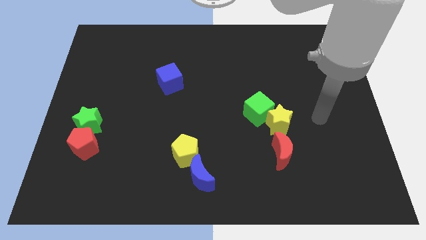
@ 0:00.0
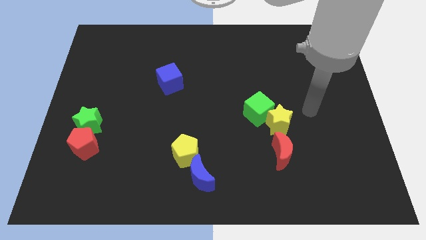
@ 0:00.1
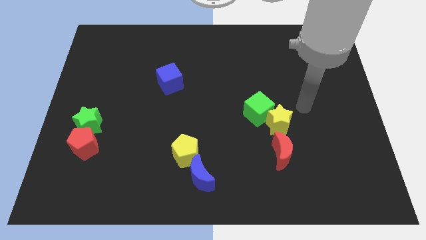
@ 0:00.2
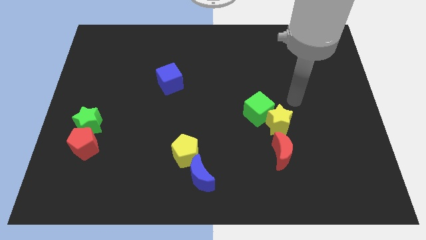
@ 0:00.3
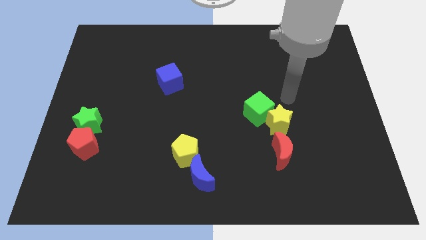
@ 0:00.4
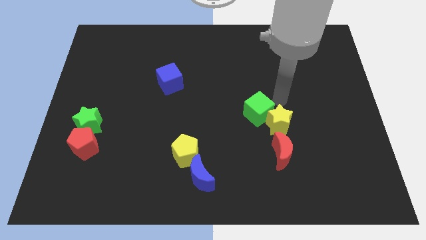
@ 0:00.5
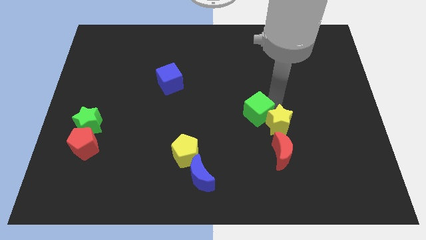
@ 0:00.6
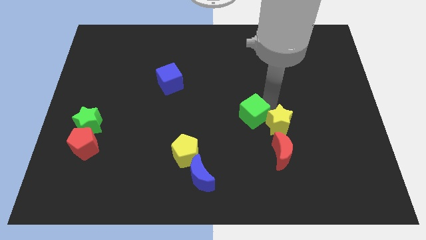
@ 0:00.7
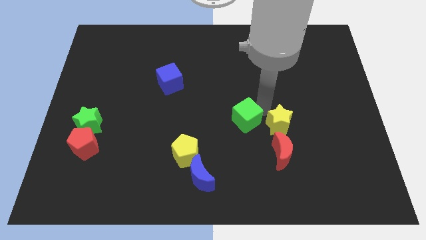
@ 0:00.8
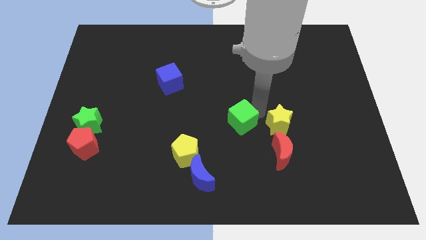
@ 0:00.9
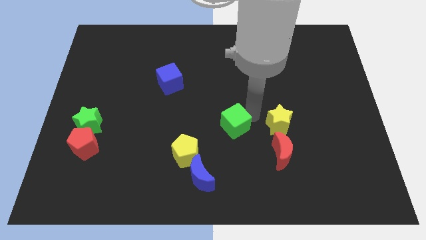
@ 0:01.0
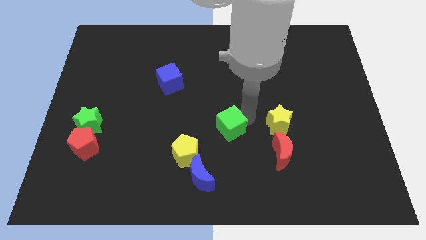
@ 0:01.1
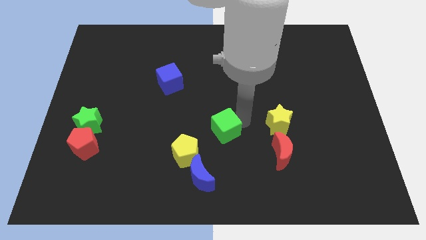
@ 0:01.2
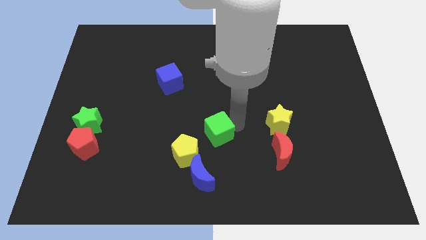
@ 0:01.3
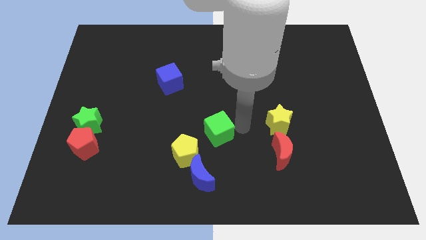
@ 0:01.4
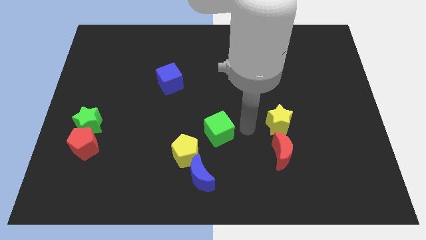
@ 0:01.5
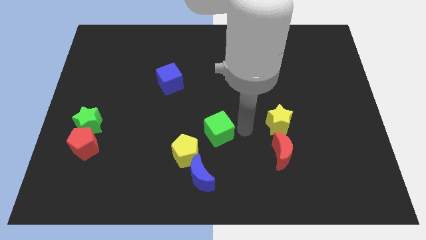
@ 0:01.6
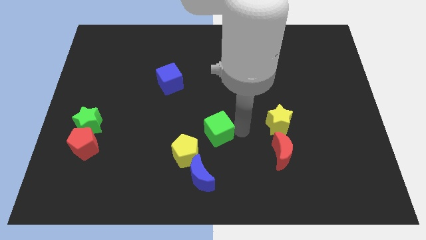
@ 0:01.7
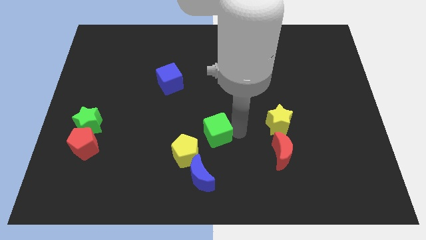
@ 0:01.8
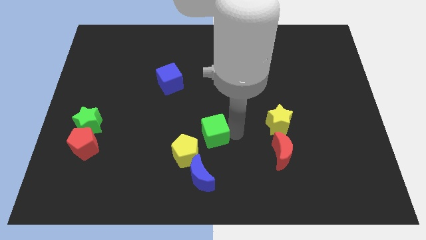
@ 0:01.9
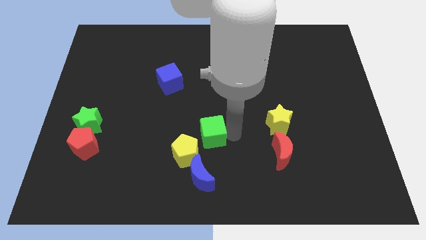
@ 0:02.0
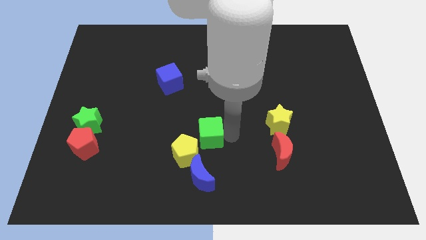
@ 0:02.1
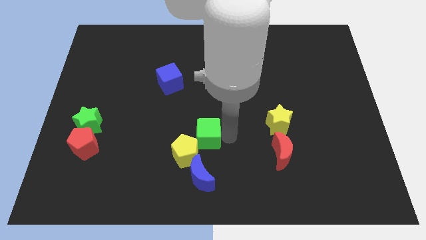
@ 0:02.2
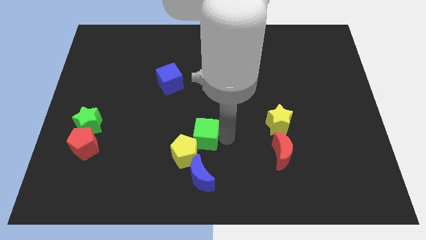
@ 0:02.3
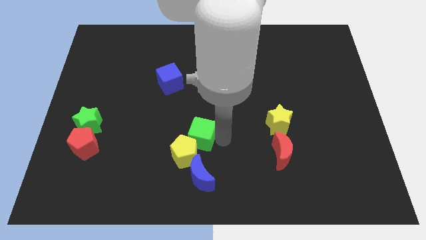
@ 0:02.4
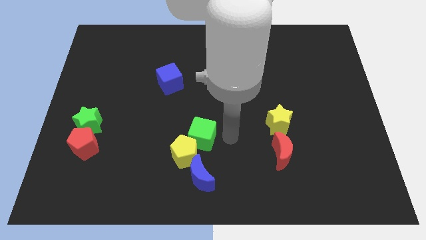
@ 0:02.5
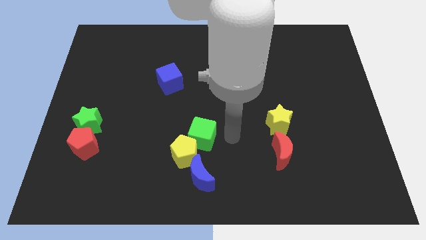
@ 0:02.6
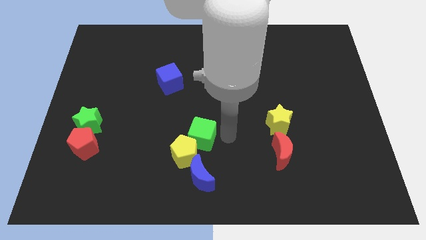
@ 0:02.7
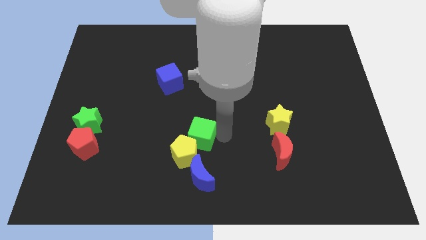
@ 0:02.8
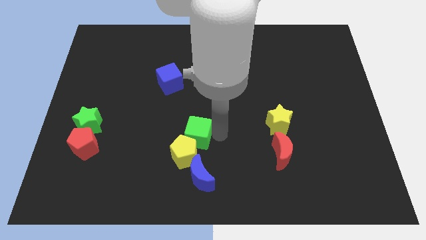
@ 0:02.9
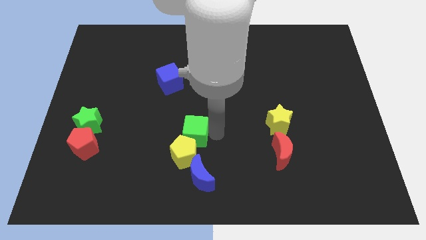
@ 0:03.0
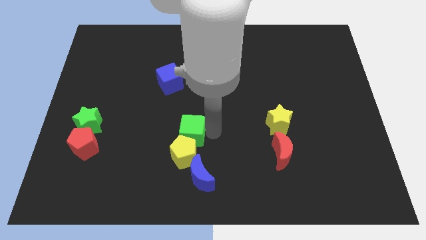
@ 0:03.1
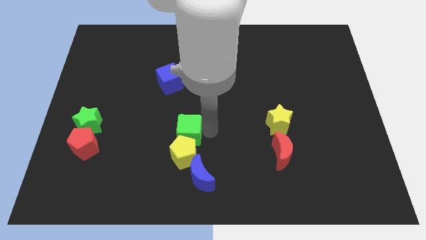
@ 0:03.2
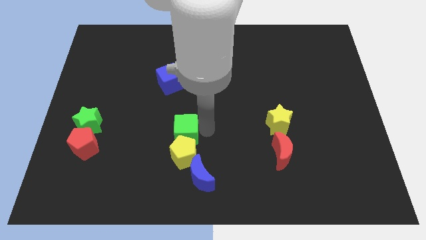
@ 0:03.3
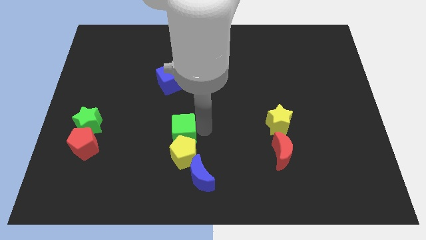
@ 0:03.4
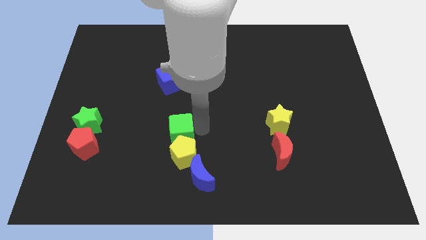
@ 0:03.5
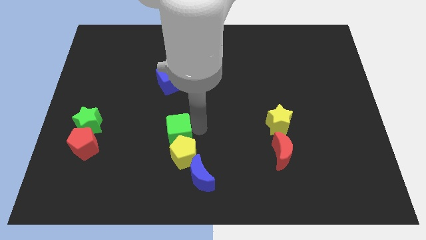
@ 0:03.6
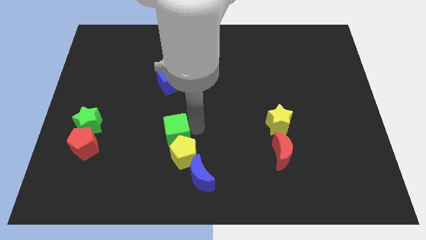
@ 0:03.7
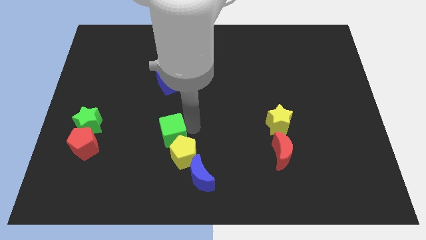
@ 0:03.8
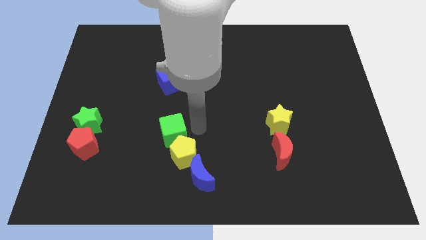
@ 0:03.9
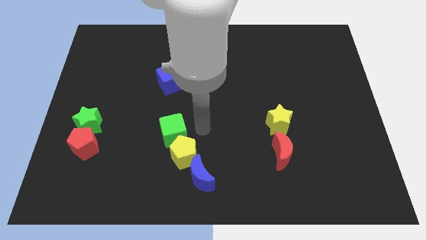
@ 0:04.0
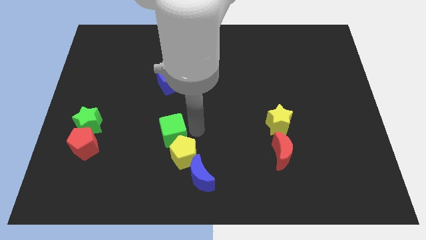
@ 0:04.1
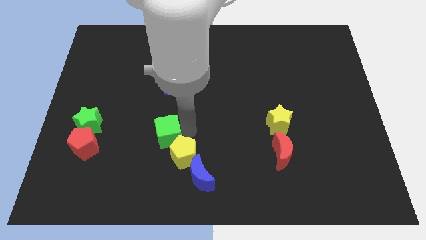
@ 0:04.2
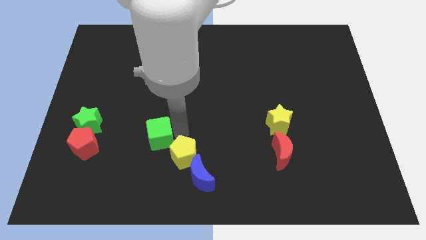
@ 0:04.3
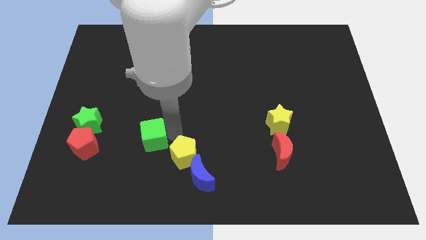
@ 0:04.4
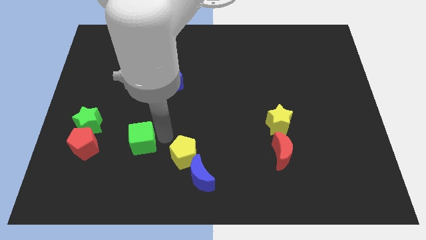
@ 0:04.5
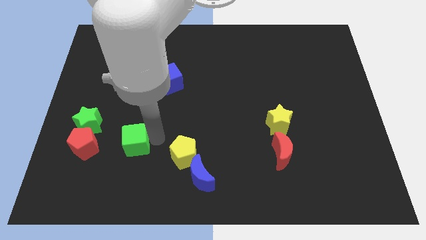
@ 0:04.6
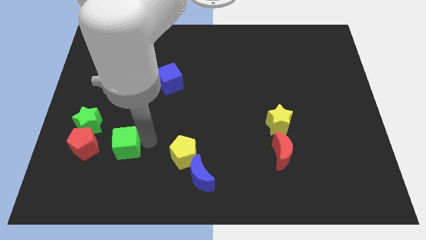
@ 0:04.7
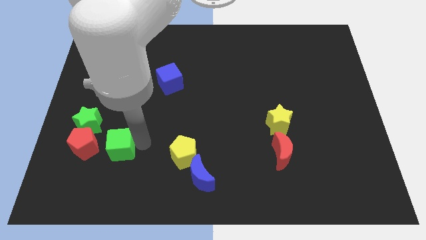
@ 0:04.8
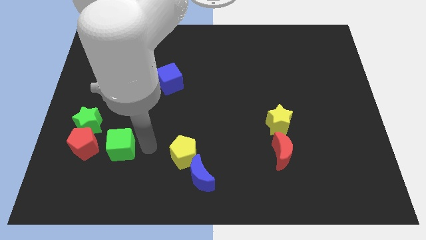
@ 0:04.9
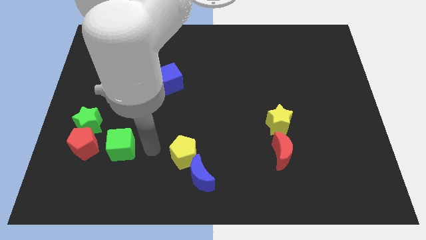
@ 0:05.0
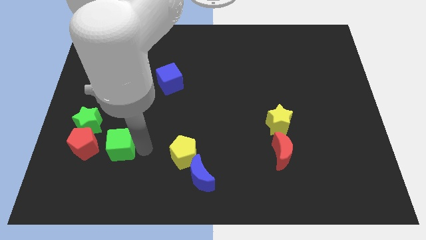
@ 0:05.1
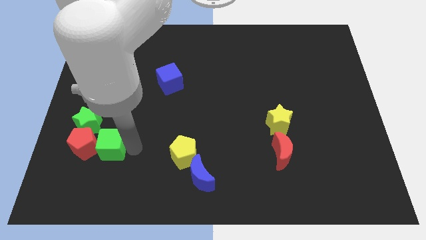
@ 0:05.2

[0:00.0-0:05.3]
move the green cube close to the red pentagon

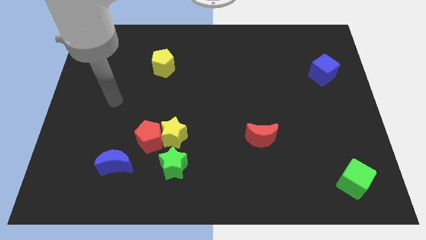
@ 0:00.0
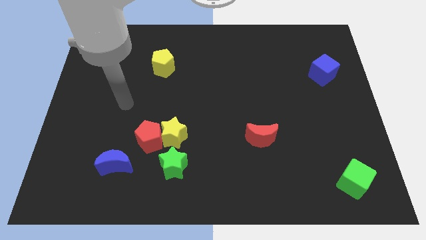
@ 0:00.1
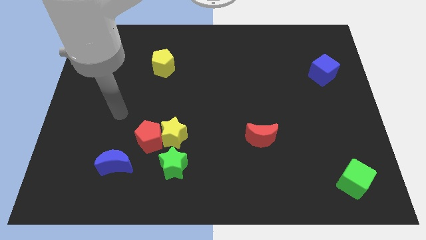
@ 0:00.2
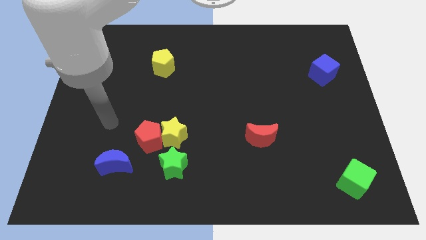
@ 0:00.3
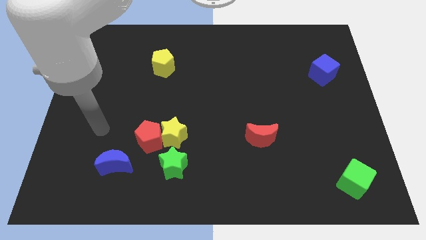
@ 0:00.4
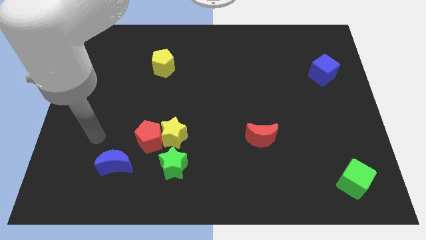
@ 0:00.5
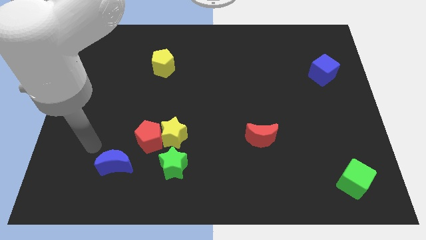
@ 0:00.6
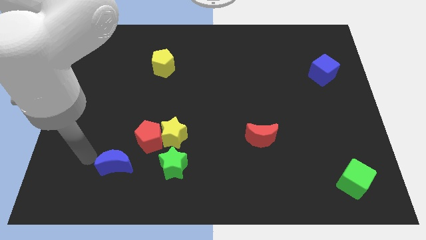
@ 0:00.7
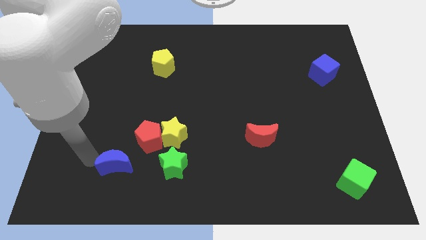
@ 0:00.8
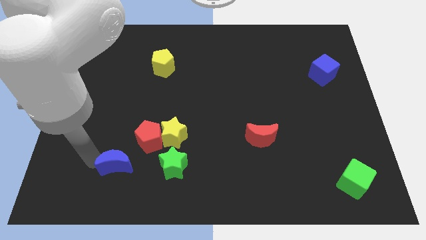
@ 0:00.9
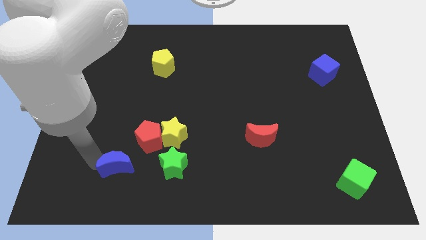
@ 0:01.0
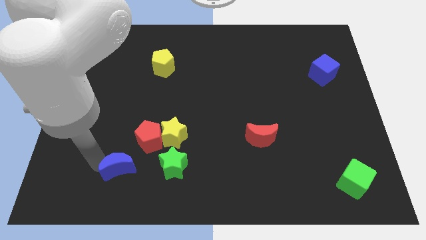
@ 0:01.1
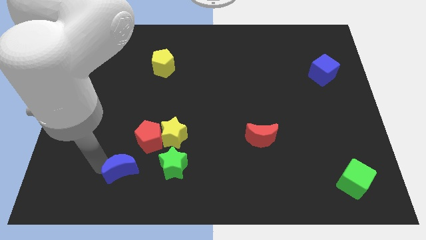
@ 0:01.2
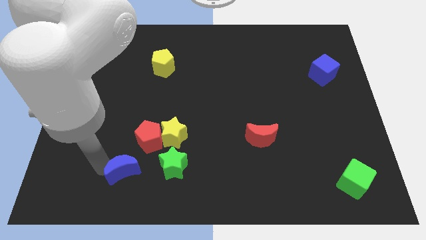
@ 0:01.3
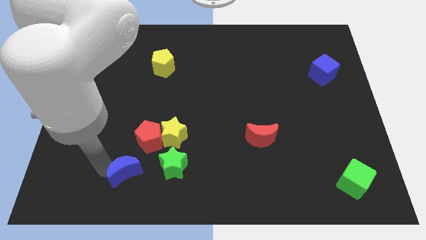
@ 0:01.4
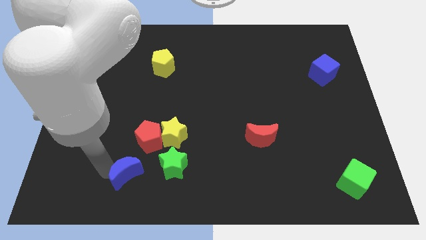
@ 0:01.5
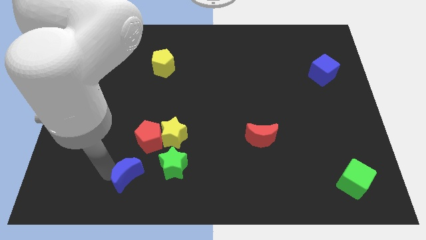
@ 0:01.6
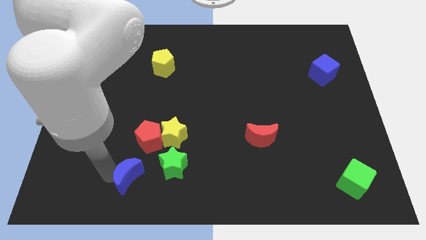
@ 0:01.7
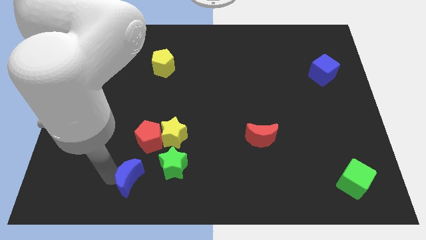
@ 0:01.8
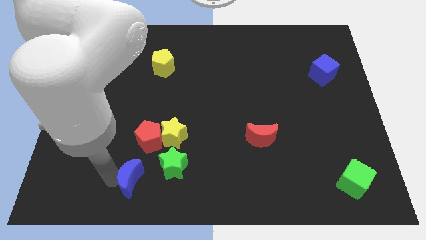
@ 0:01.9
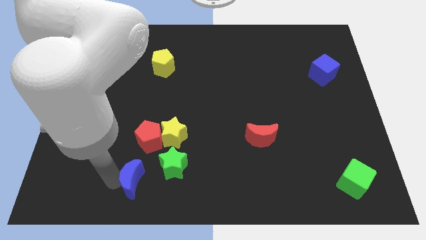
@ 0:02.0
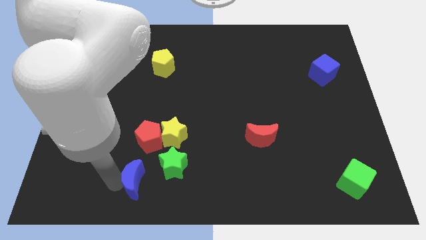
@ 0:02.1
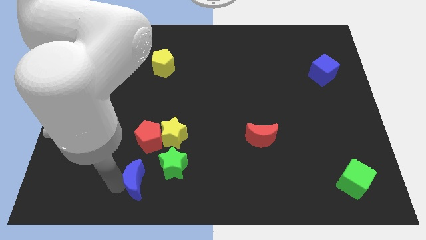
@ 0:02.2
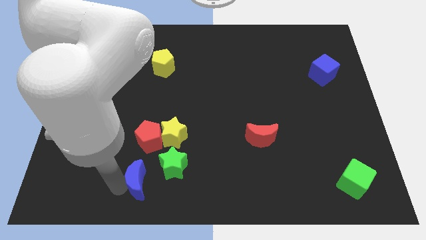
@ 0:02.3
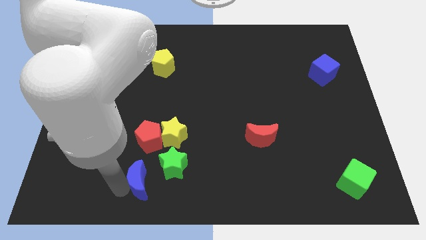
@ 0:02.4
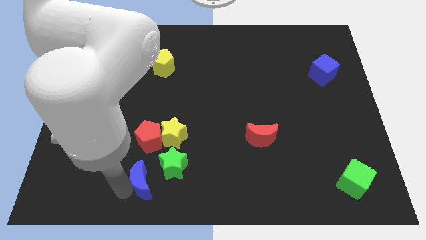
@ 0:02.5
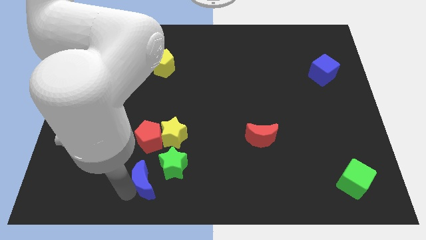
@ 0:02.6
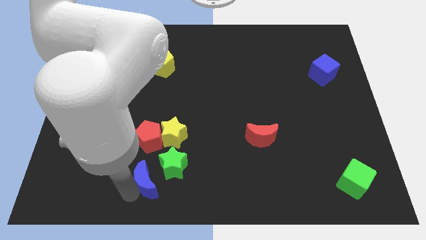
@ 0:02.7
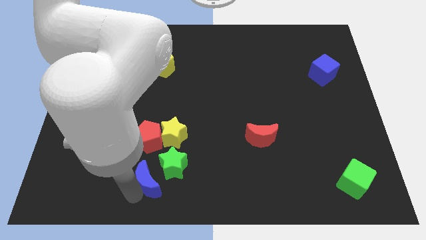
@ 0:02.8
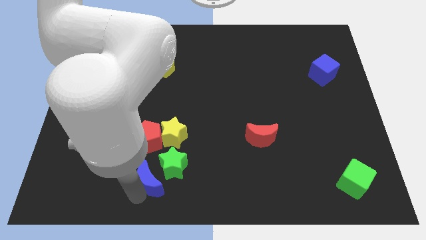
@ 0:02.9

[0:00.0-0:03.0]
put the blue moon next to the green star
